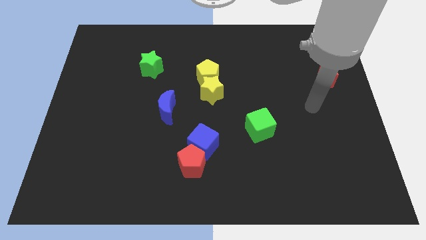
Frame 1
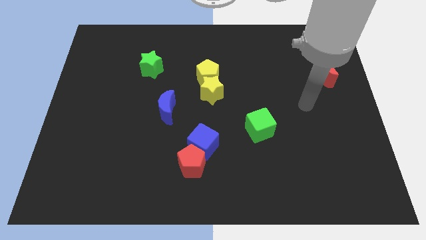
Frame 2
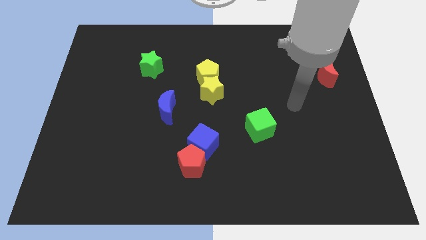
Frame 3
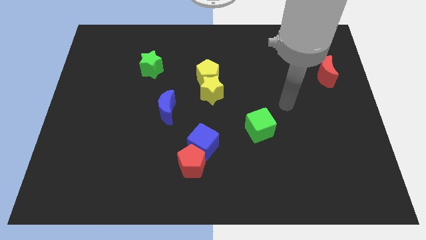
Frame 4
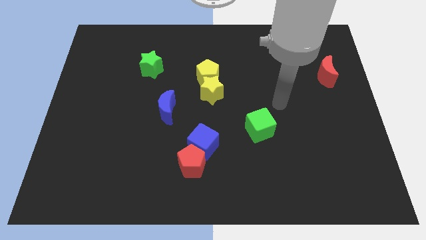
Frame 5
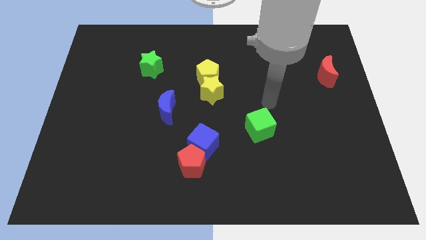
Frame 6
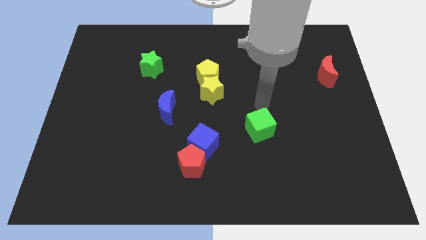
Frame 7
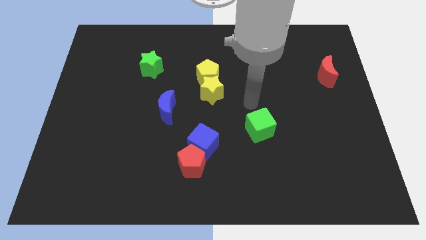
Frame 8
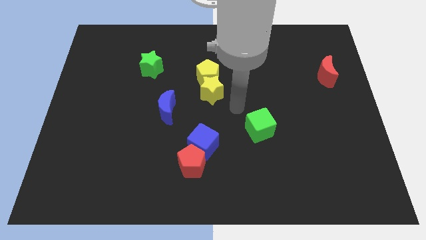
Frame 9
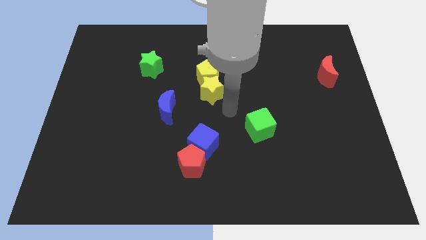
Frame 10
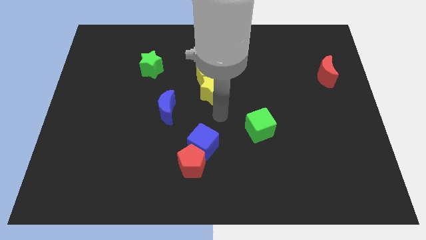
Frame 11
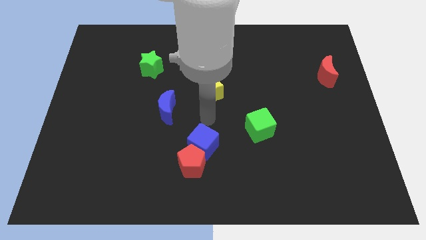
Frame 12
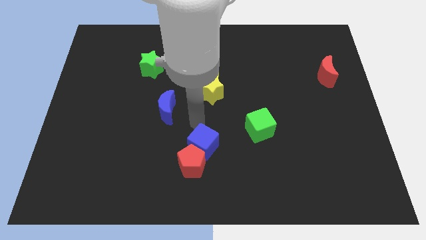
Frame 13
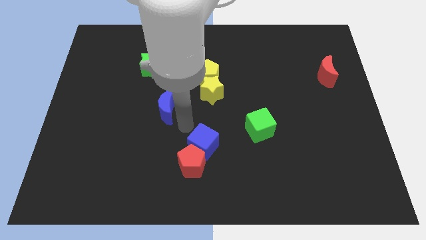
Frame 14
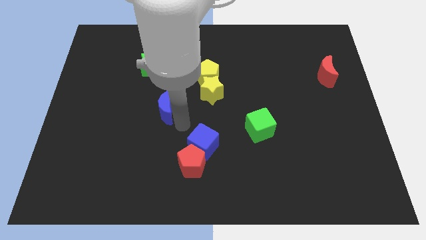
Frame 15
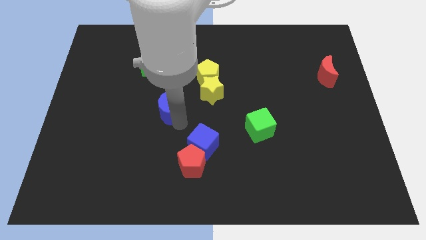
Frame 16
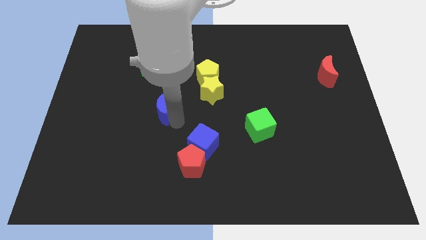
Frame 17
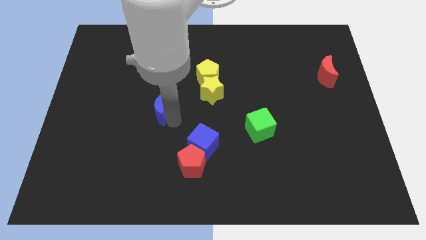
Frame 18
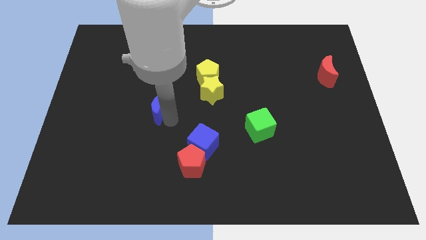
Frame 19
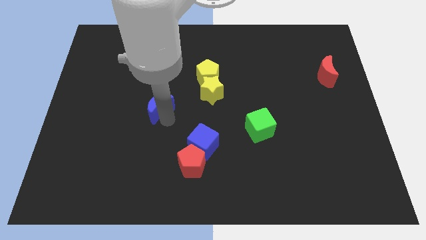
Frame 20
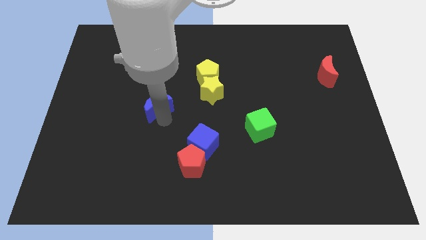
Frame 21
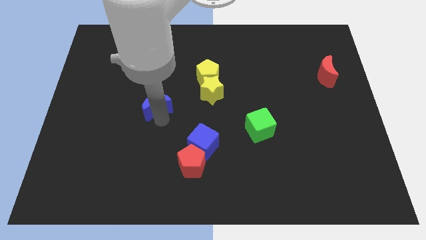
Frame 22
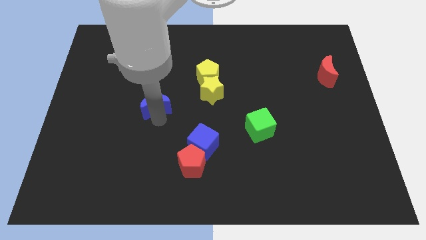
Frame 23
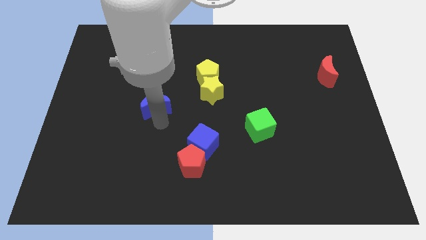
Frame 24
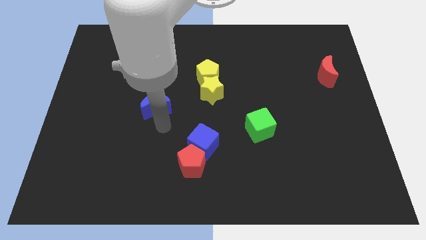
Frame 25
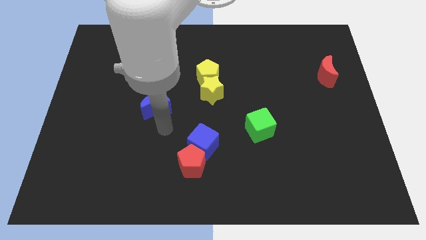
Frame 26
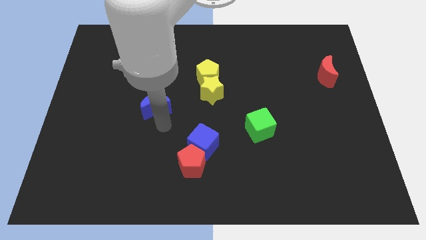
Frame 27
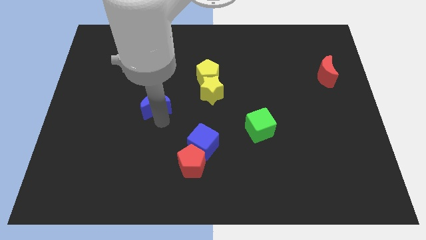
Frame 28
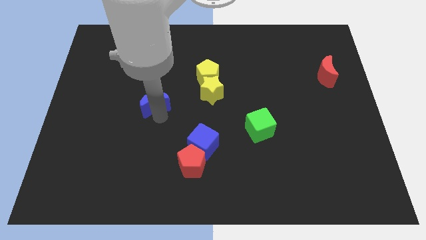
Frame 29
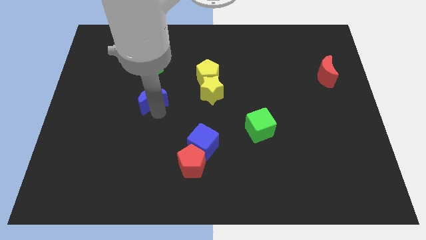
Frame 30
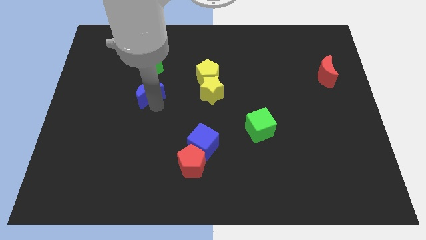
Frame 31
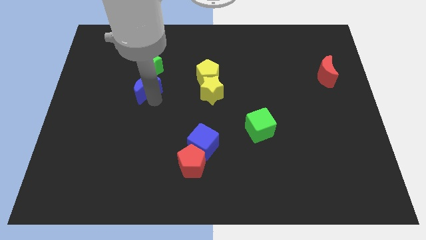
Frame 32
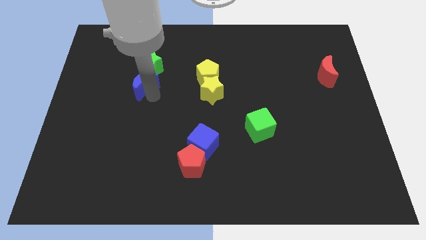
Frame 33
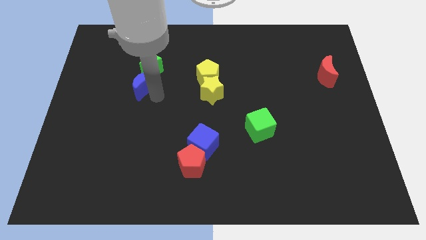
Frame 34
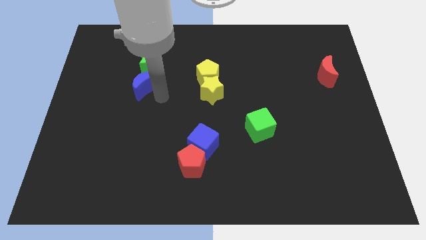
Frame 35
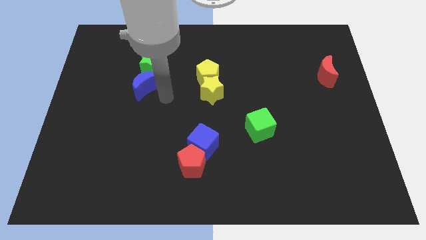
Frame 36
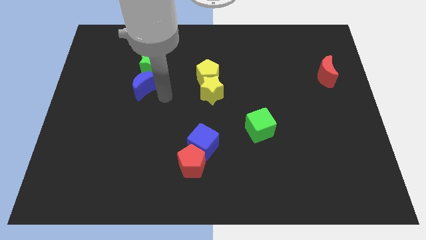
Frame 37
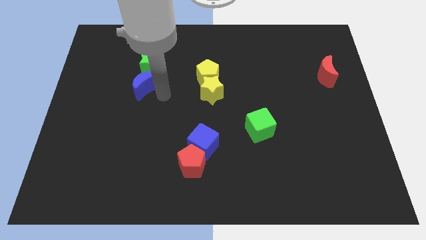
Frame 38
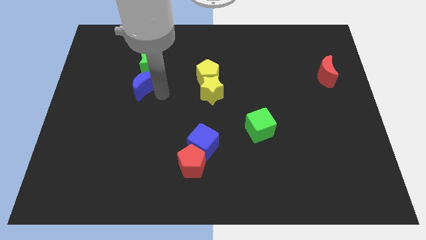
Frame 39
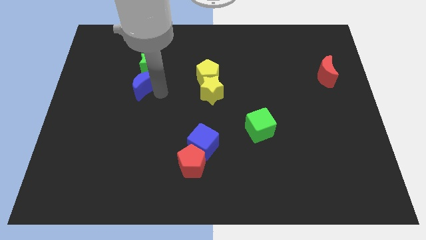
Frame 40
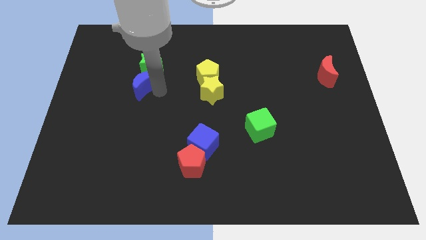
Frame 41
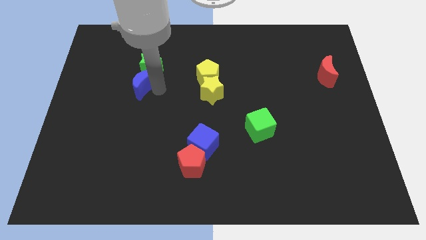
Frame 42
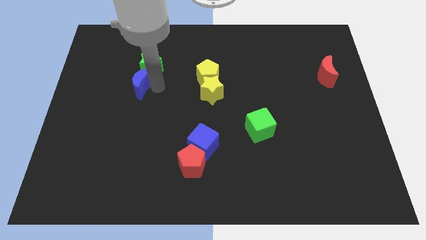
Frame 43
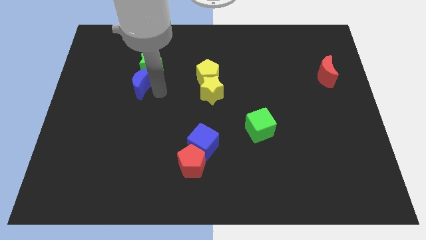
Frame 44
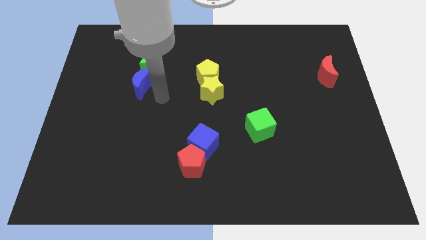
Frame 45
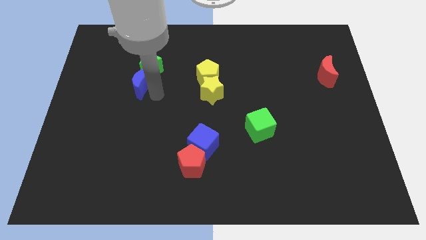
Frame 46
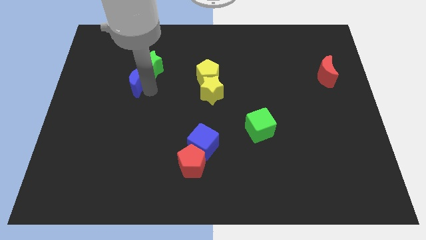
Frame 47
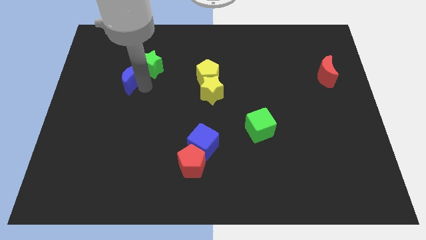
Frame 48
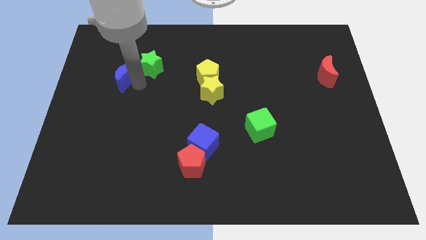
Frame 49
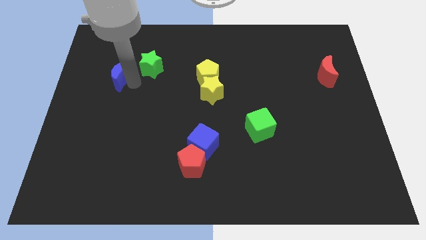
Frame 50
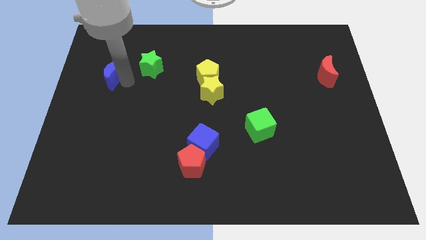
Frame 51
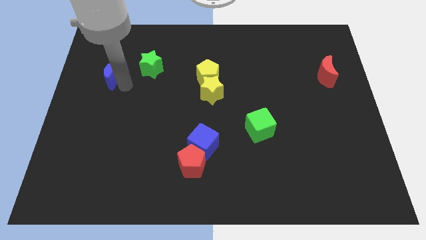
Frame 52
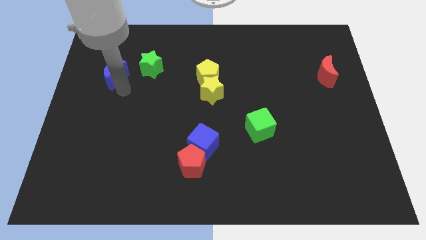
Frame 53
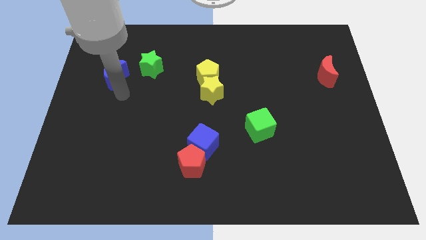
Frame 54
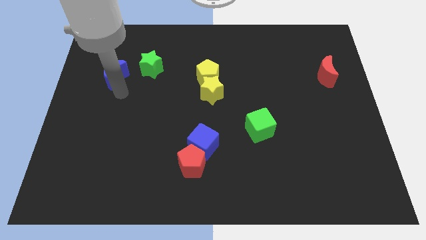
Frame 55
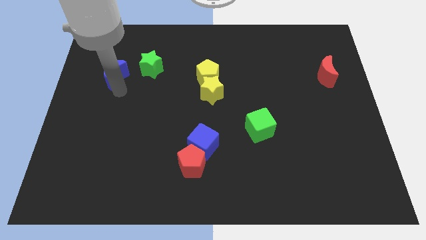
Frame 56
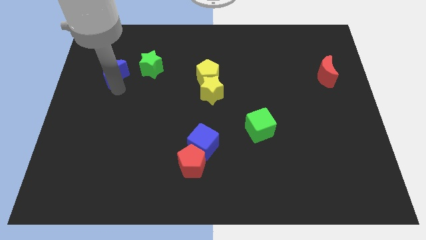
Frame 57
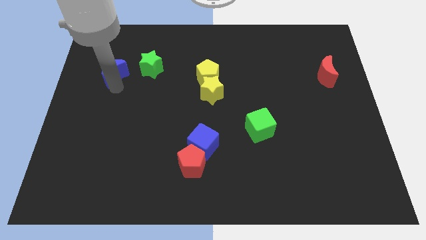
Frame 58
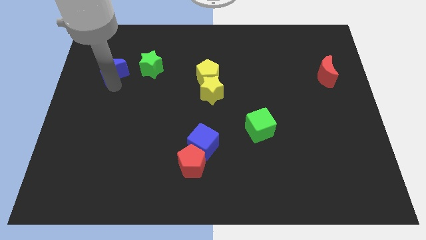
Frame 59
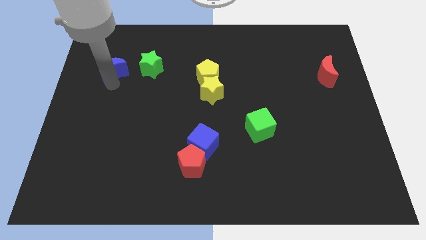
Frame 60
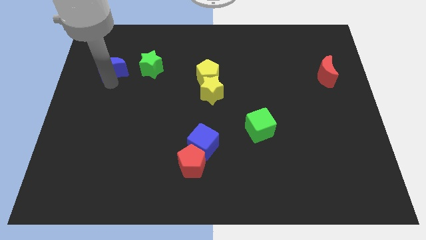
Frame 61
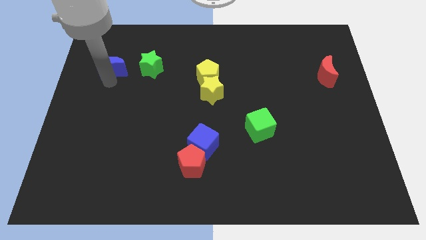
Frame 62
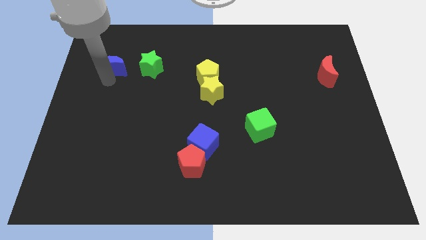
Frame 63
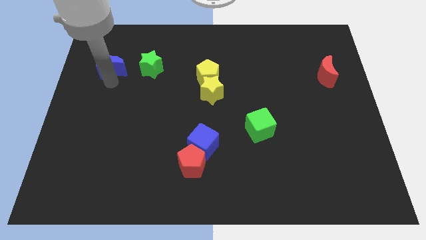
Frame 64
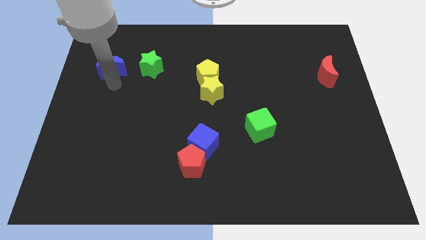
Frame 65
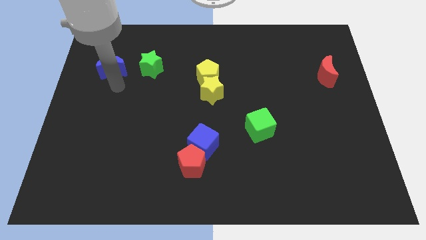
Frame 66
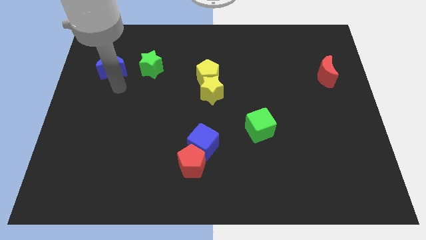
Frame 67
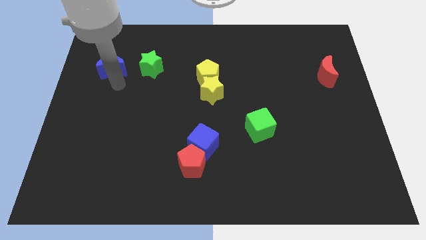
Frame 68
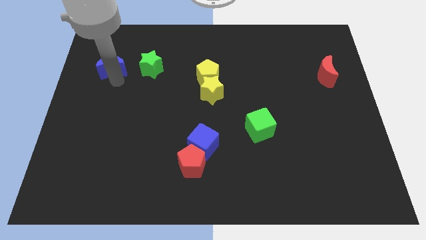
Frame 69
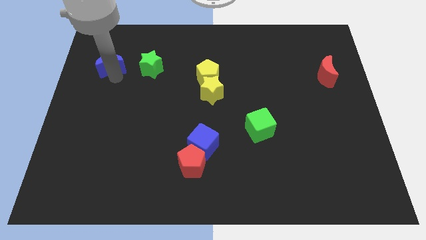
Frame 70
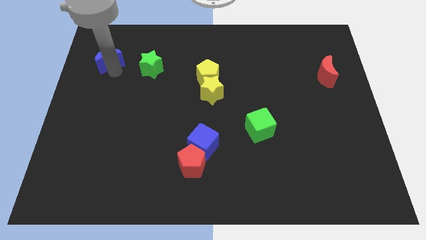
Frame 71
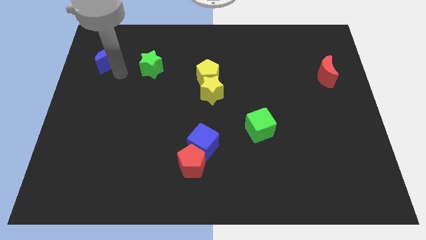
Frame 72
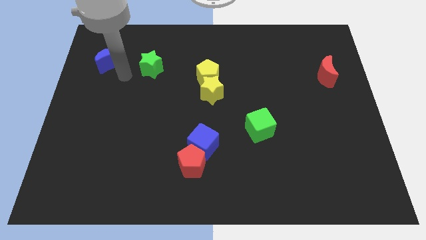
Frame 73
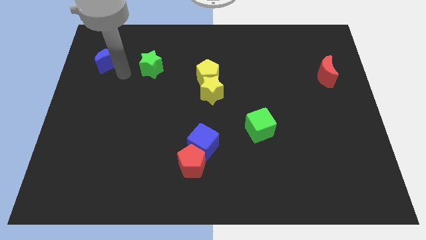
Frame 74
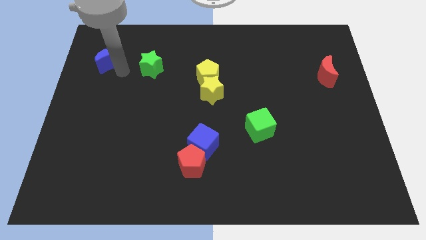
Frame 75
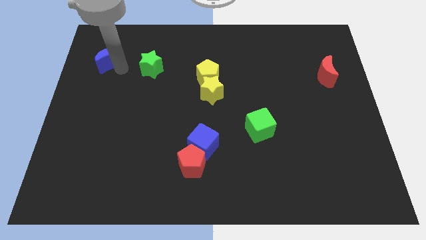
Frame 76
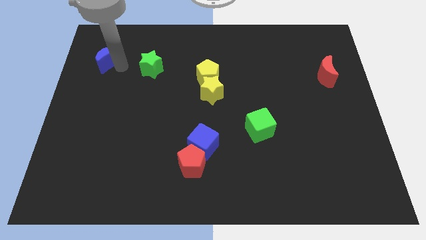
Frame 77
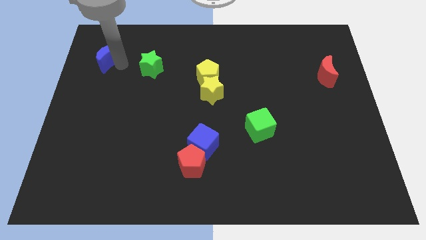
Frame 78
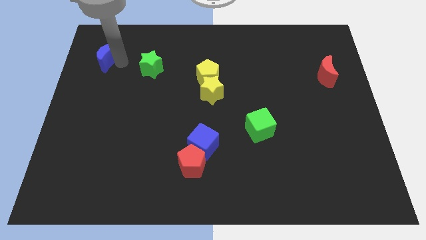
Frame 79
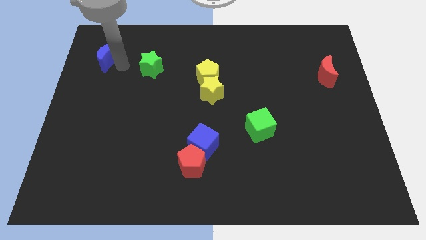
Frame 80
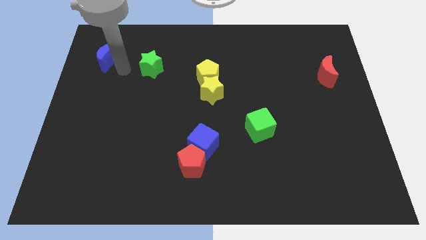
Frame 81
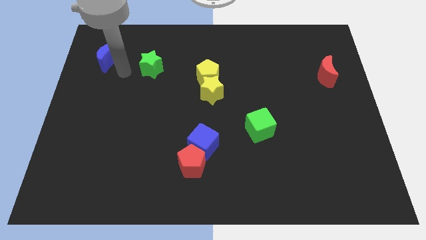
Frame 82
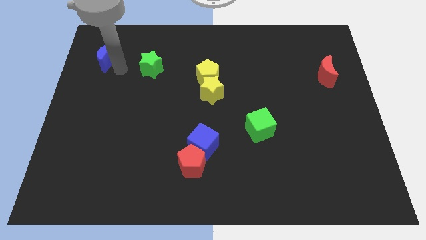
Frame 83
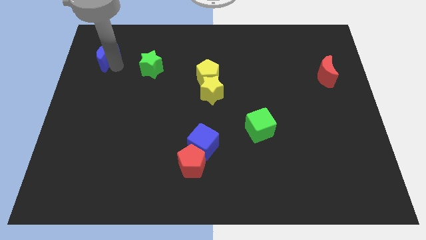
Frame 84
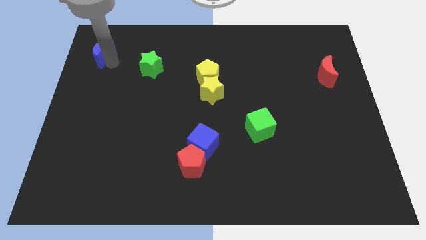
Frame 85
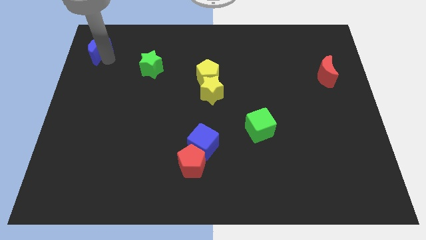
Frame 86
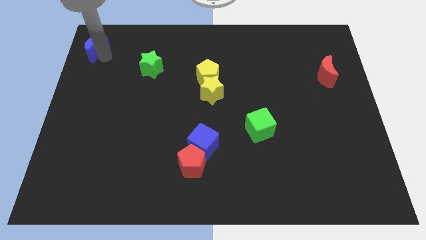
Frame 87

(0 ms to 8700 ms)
move the blue moon to the upper left corner
